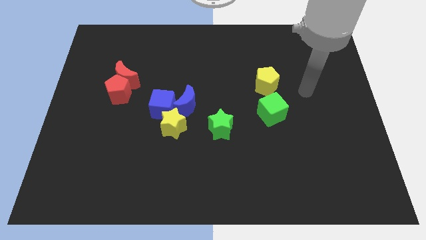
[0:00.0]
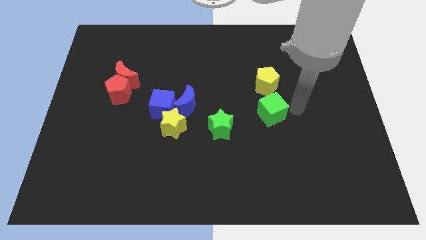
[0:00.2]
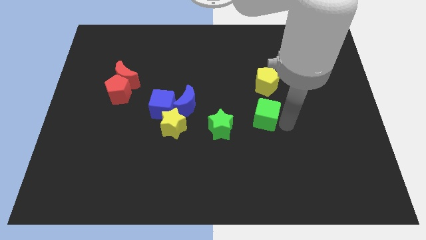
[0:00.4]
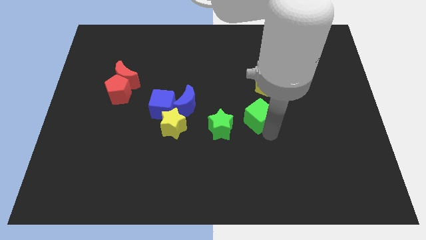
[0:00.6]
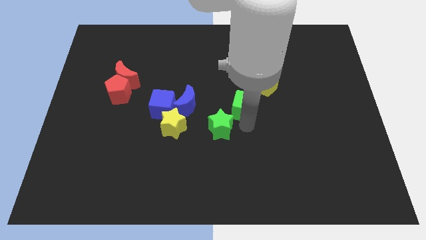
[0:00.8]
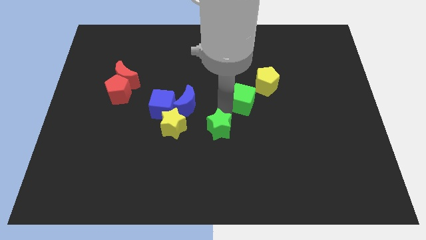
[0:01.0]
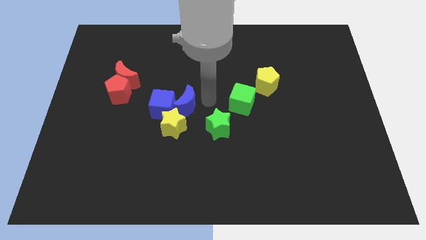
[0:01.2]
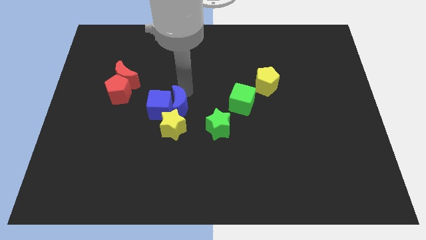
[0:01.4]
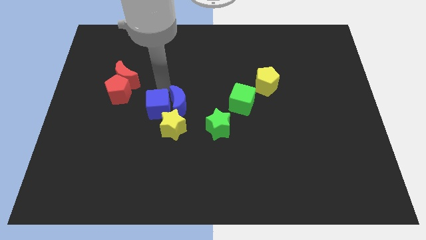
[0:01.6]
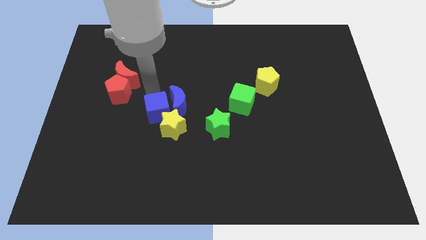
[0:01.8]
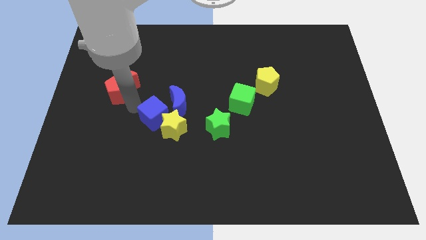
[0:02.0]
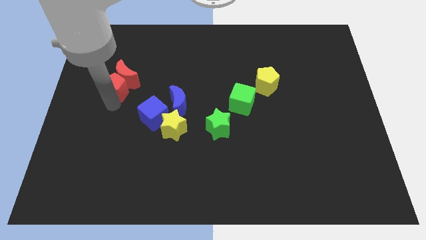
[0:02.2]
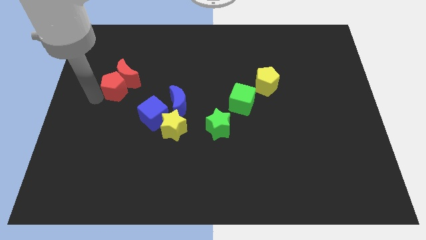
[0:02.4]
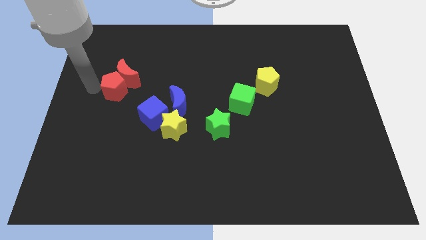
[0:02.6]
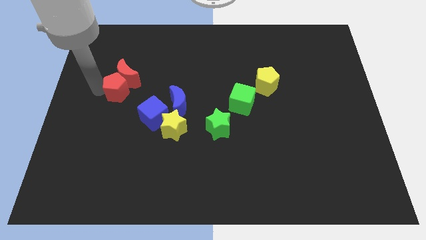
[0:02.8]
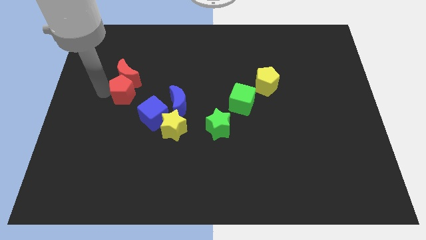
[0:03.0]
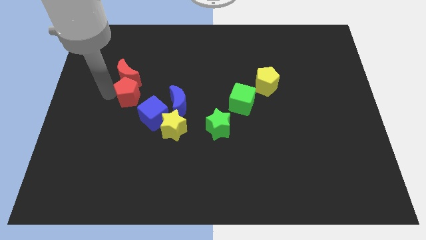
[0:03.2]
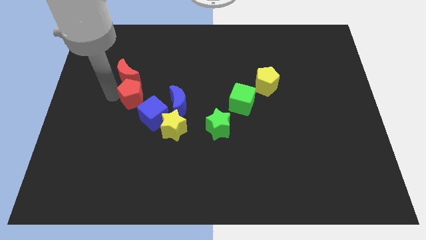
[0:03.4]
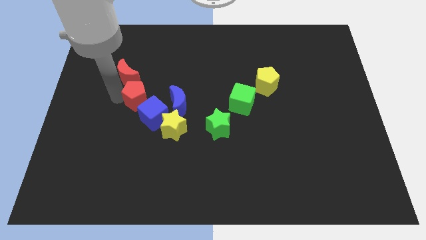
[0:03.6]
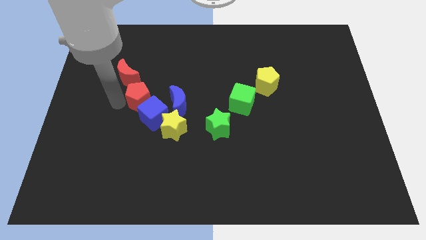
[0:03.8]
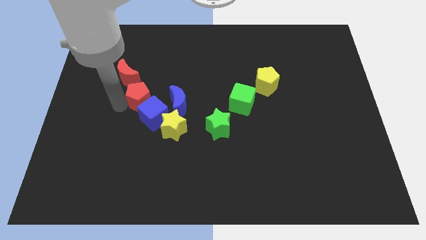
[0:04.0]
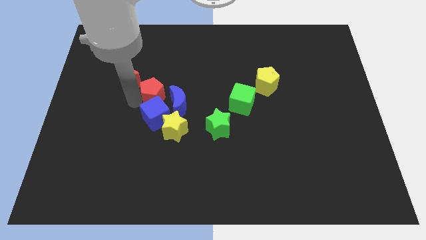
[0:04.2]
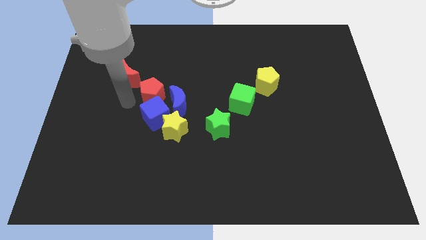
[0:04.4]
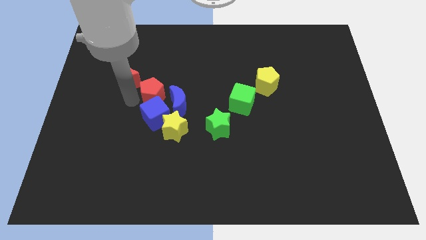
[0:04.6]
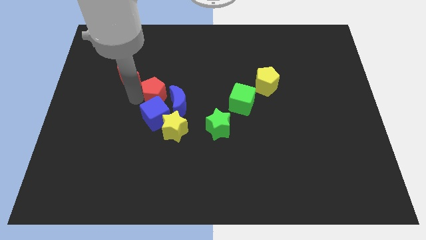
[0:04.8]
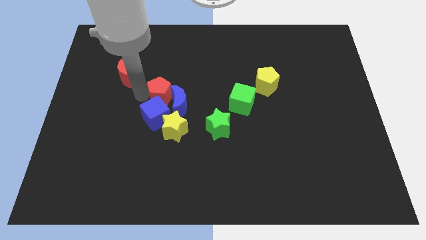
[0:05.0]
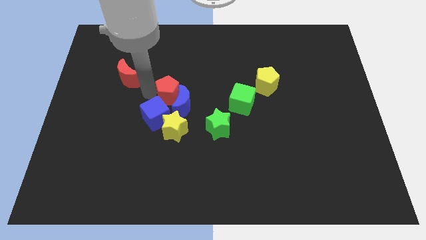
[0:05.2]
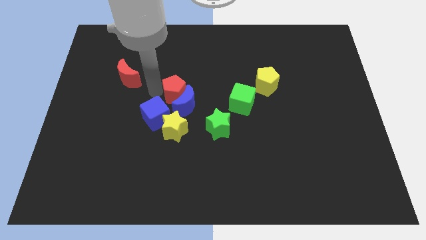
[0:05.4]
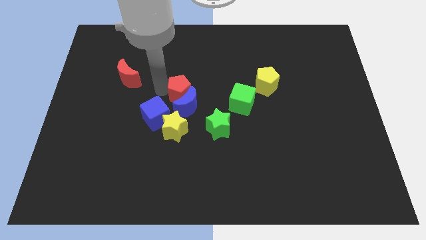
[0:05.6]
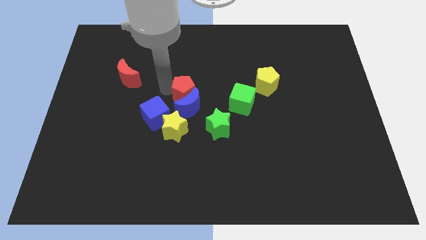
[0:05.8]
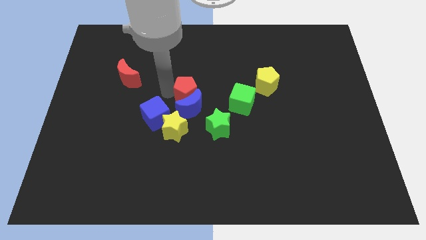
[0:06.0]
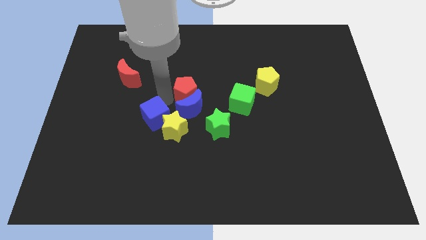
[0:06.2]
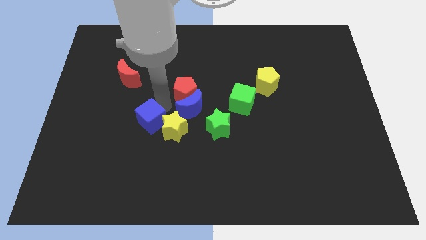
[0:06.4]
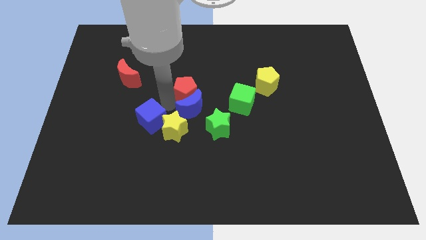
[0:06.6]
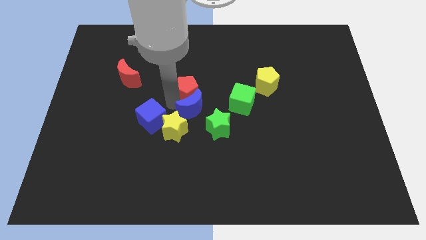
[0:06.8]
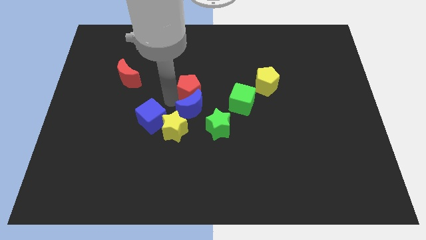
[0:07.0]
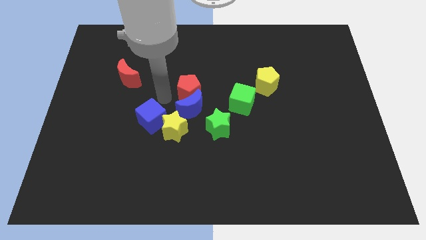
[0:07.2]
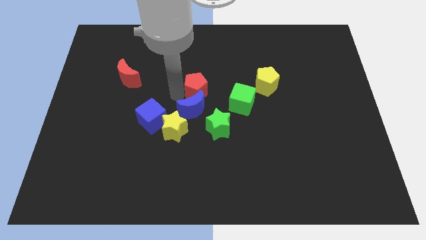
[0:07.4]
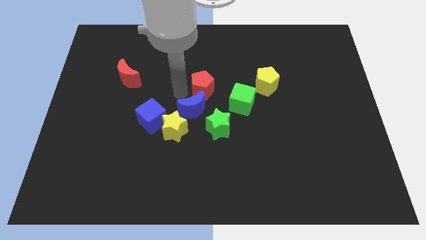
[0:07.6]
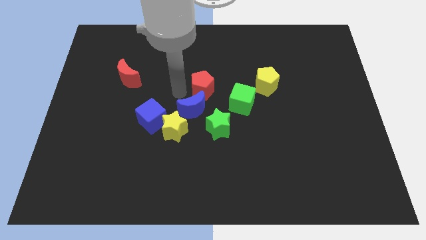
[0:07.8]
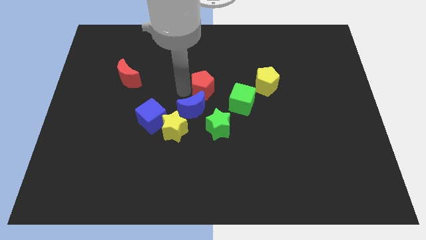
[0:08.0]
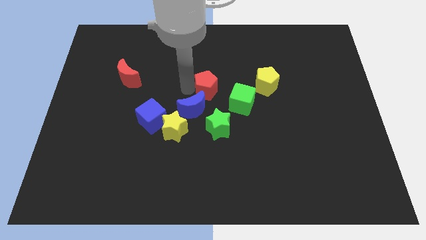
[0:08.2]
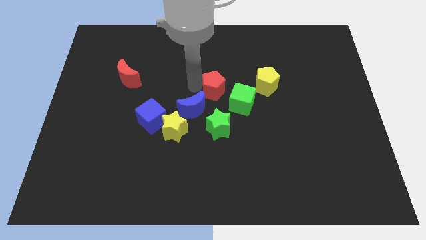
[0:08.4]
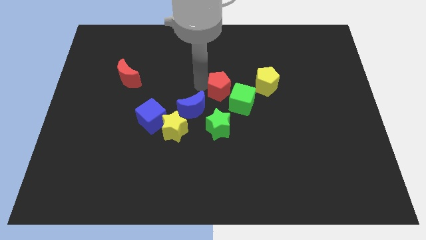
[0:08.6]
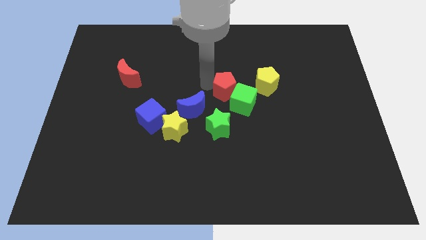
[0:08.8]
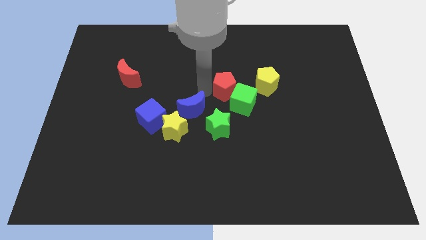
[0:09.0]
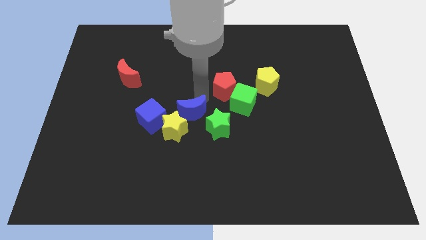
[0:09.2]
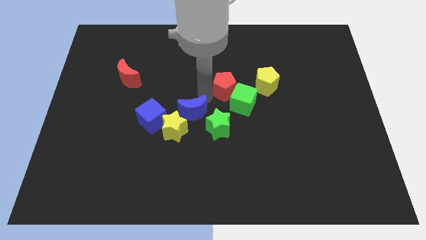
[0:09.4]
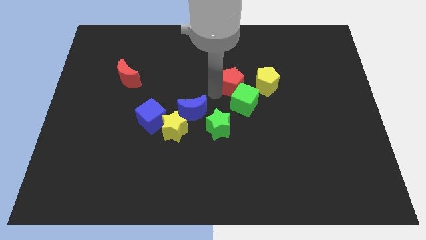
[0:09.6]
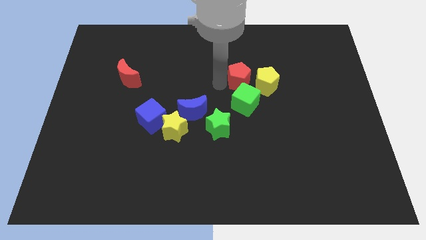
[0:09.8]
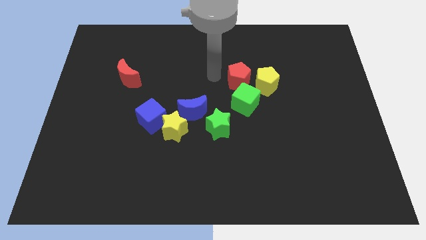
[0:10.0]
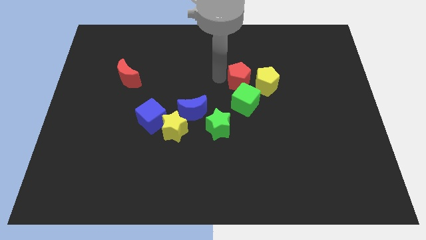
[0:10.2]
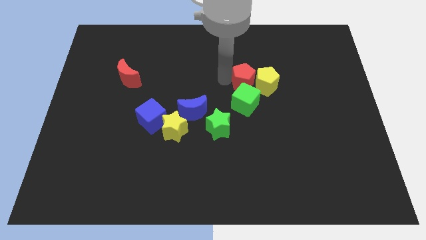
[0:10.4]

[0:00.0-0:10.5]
push the red pentagon close to the yellow pentagon

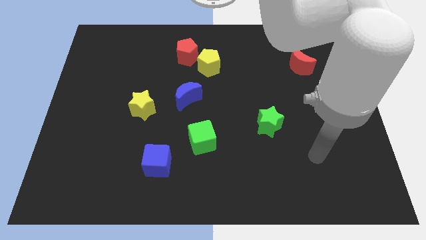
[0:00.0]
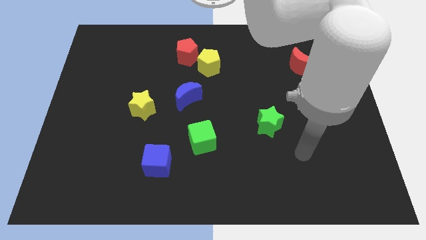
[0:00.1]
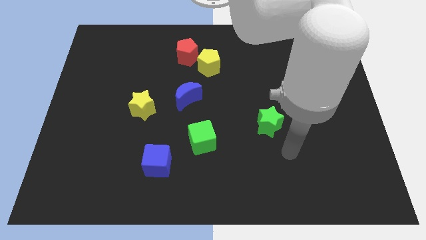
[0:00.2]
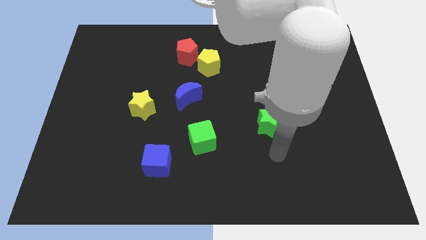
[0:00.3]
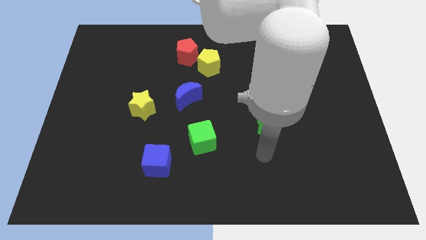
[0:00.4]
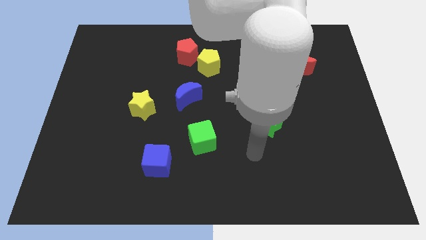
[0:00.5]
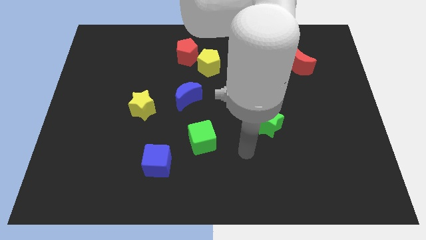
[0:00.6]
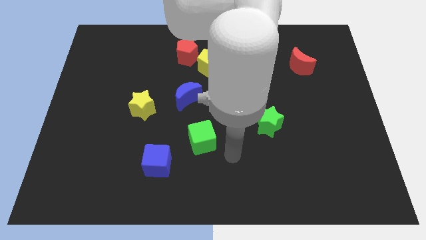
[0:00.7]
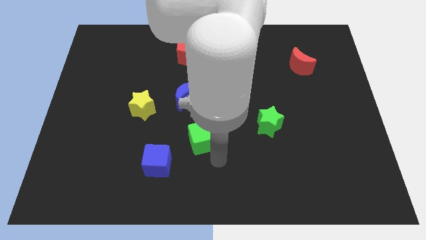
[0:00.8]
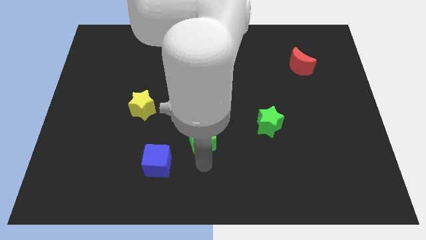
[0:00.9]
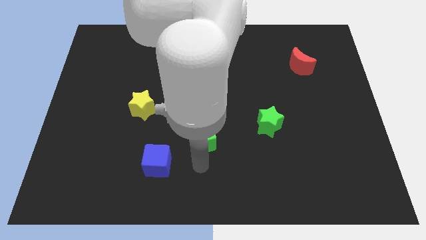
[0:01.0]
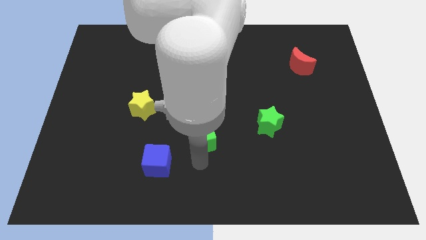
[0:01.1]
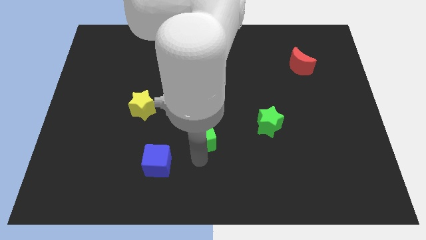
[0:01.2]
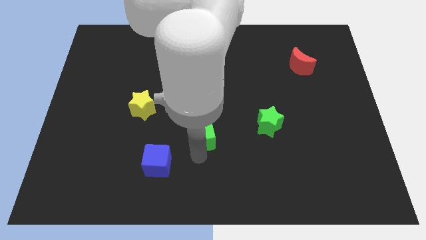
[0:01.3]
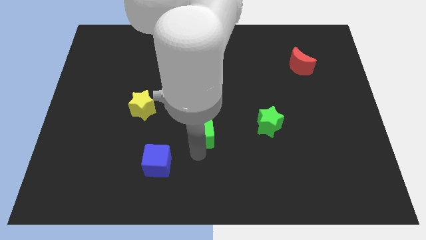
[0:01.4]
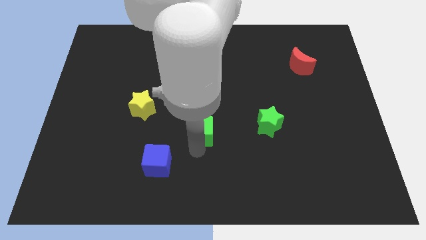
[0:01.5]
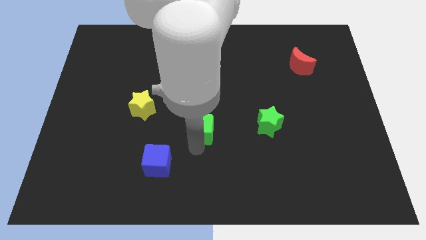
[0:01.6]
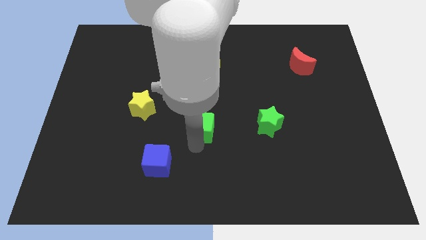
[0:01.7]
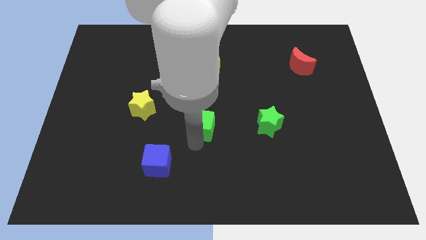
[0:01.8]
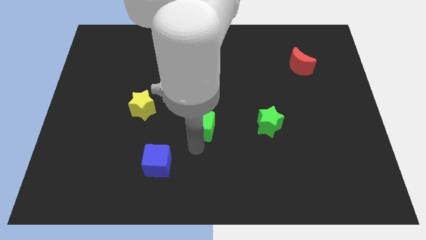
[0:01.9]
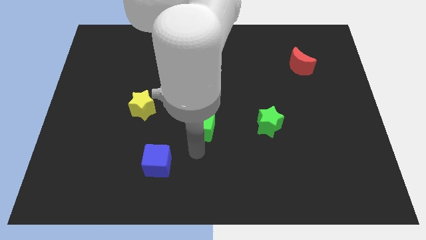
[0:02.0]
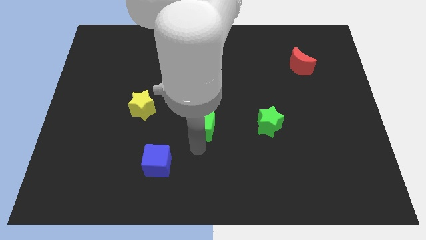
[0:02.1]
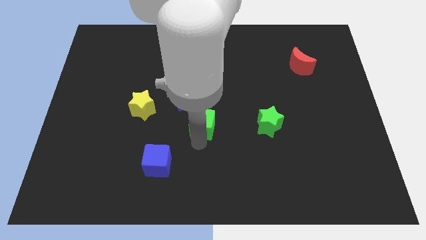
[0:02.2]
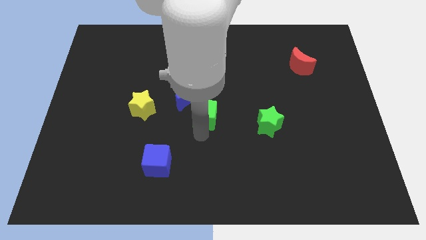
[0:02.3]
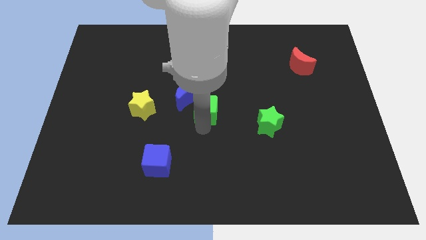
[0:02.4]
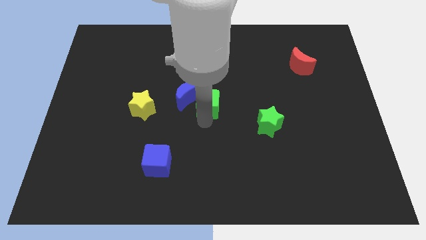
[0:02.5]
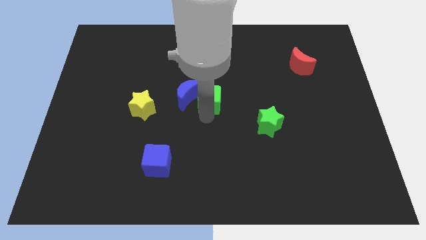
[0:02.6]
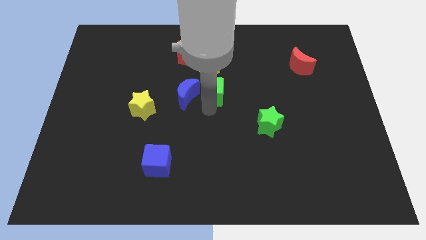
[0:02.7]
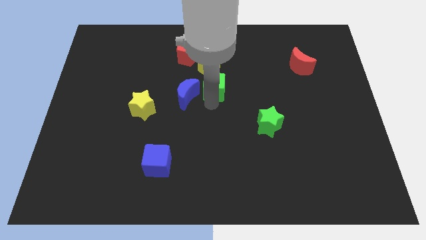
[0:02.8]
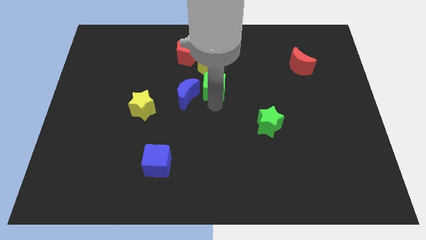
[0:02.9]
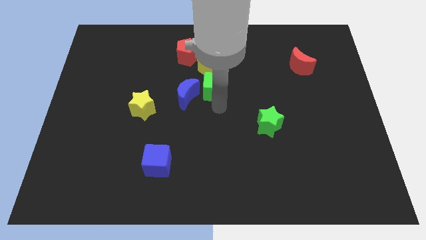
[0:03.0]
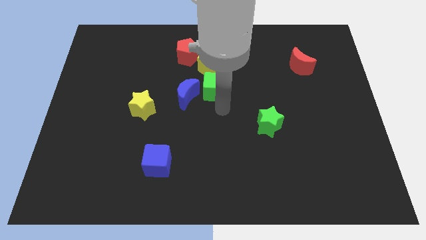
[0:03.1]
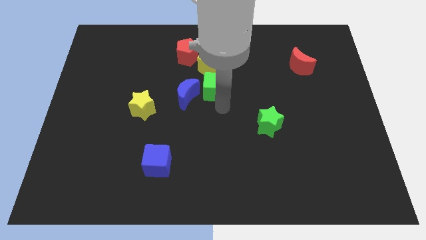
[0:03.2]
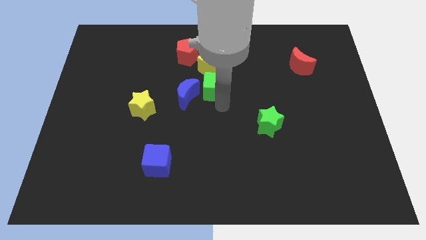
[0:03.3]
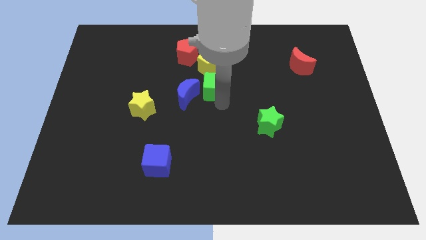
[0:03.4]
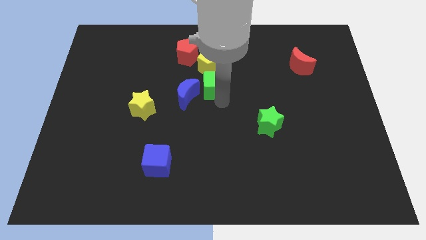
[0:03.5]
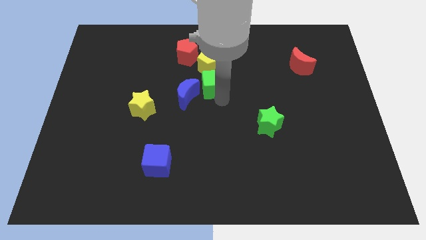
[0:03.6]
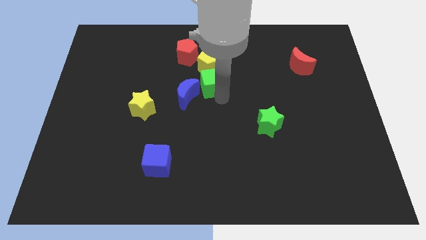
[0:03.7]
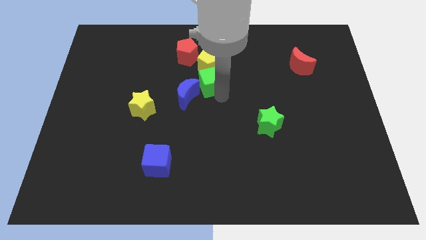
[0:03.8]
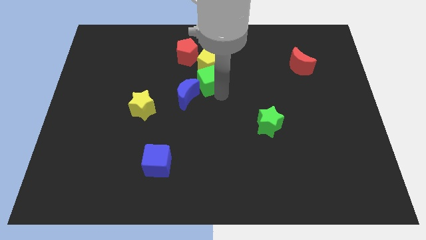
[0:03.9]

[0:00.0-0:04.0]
push the green cube towards the yellow pentagon
